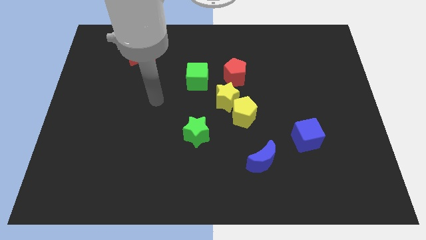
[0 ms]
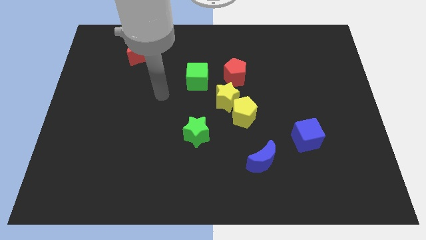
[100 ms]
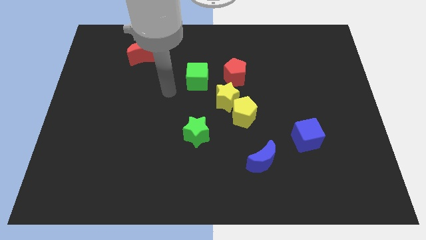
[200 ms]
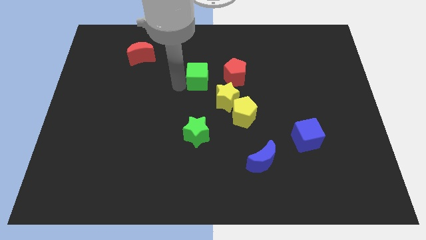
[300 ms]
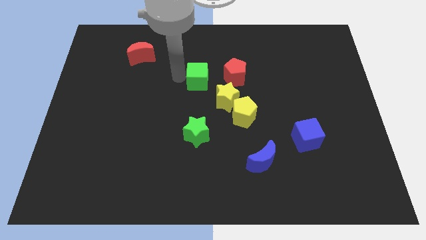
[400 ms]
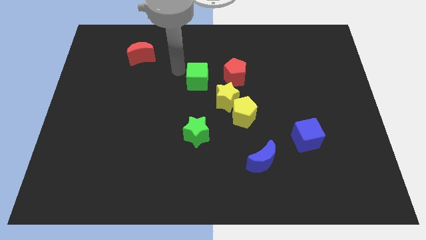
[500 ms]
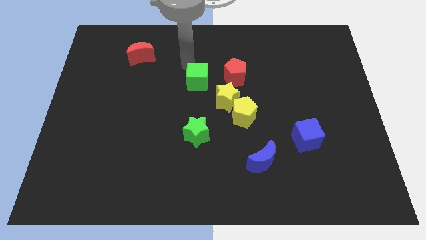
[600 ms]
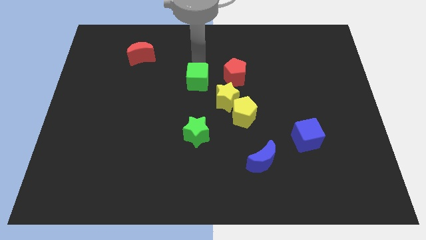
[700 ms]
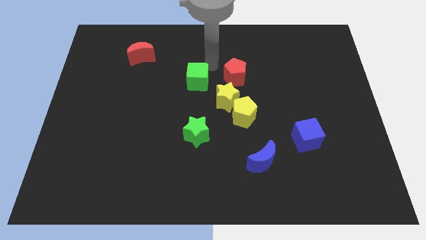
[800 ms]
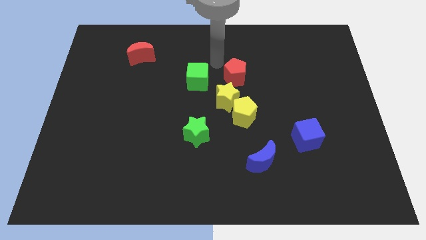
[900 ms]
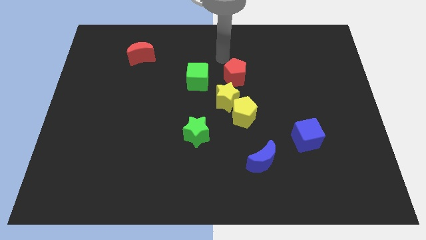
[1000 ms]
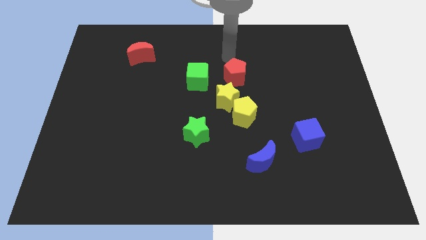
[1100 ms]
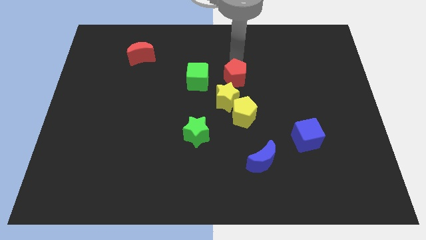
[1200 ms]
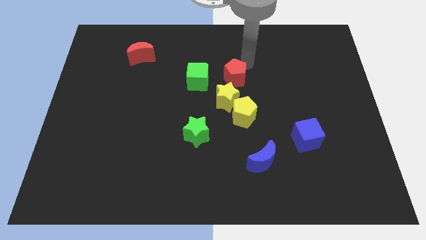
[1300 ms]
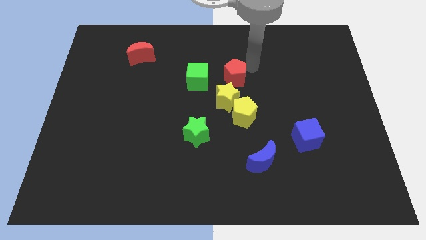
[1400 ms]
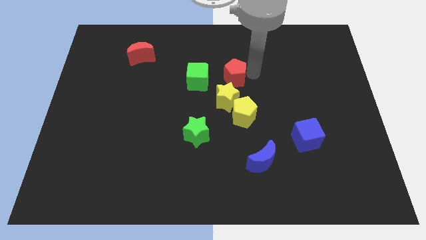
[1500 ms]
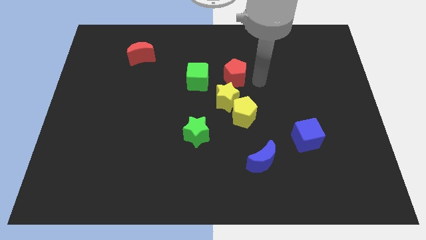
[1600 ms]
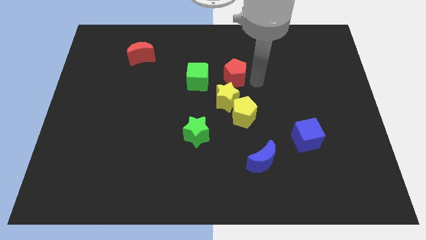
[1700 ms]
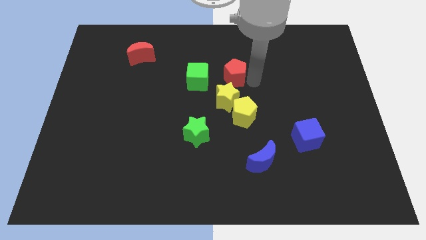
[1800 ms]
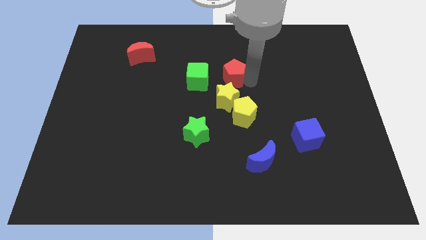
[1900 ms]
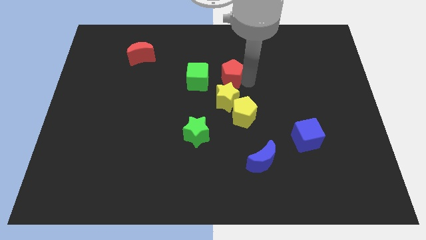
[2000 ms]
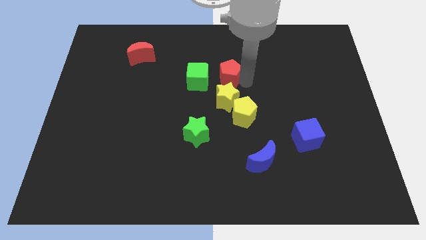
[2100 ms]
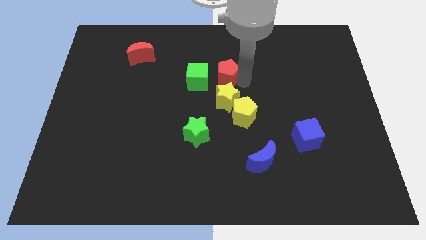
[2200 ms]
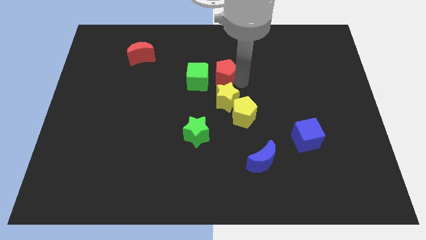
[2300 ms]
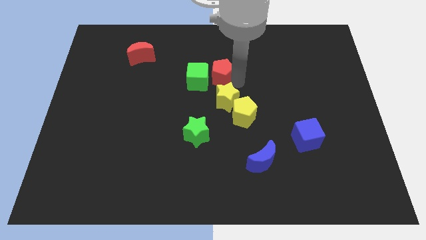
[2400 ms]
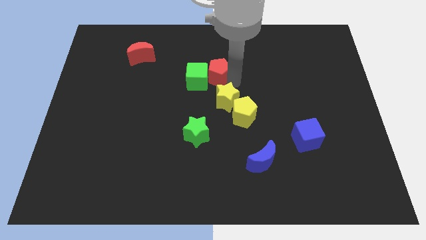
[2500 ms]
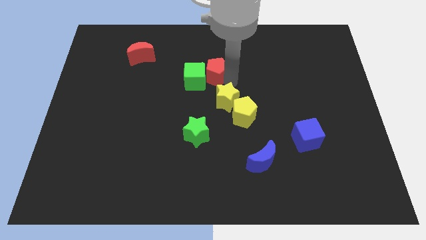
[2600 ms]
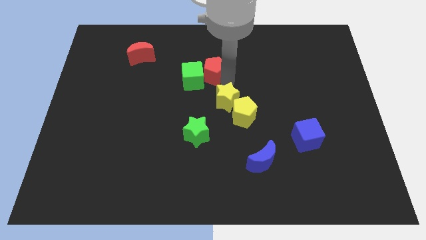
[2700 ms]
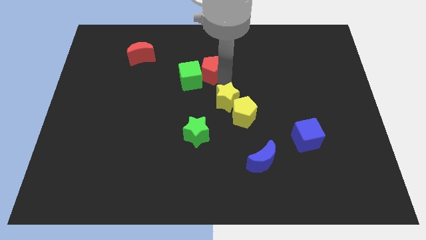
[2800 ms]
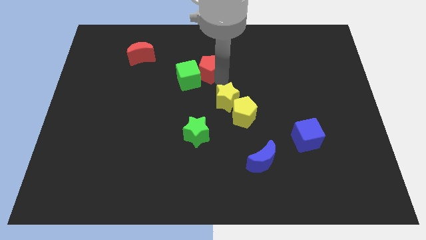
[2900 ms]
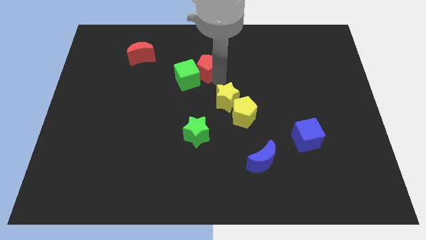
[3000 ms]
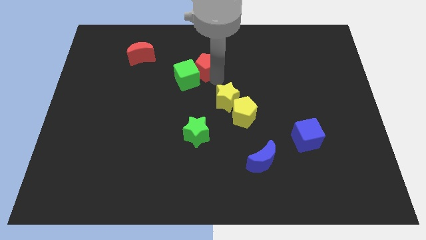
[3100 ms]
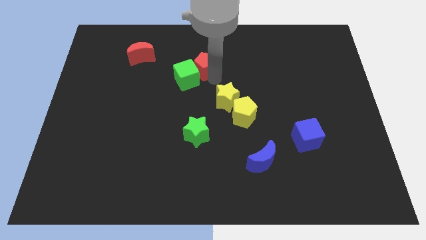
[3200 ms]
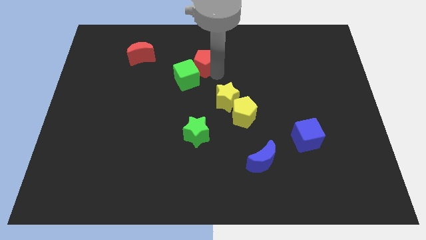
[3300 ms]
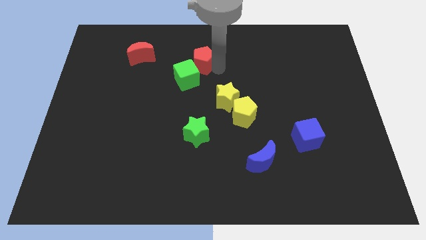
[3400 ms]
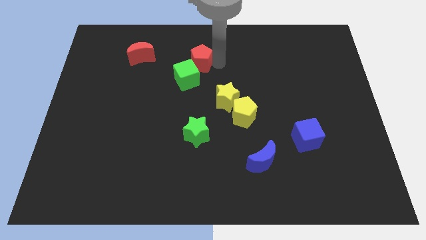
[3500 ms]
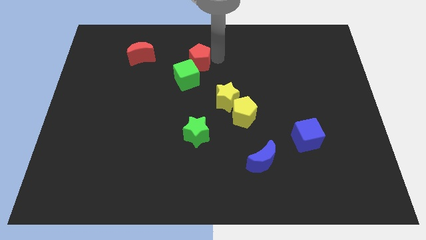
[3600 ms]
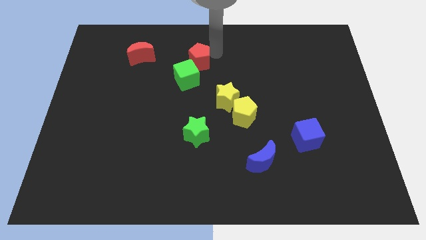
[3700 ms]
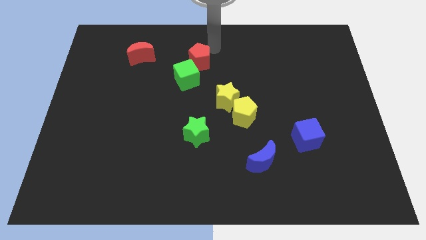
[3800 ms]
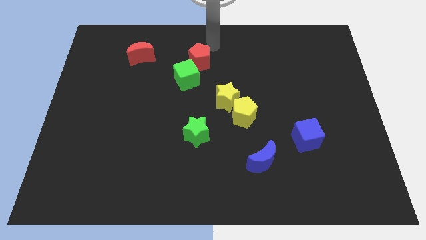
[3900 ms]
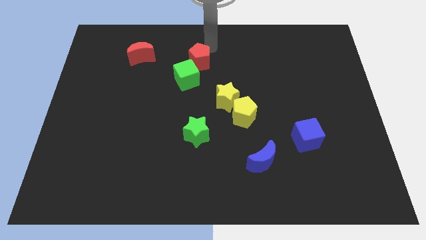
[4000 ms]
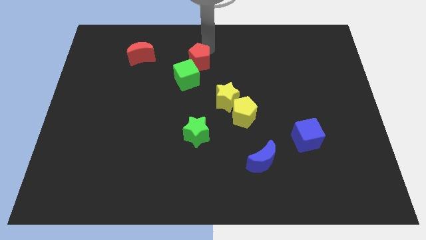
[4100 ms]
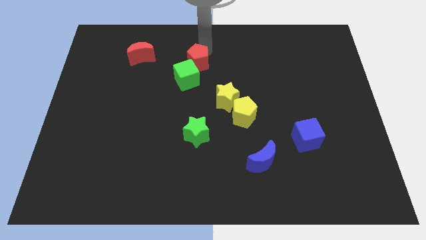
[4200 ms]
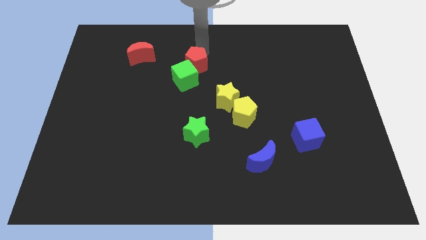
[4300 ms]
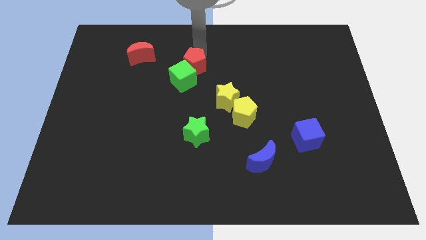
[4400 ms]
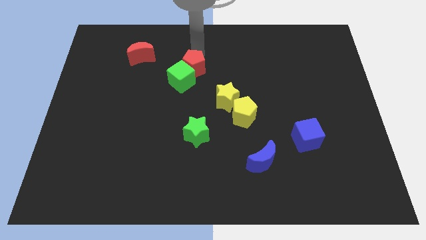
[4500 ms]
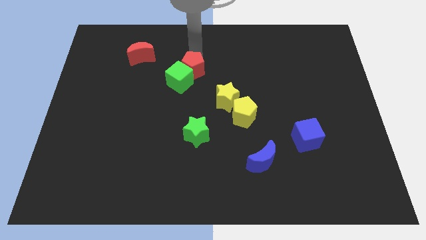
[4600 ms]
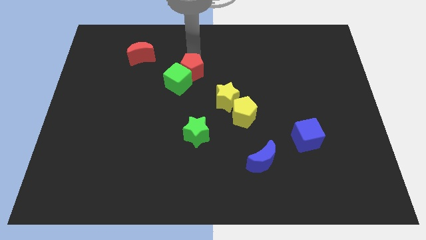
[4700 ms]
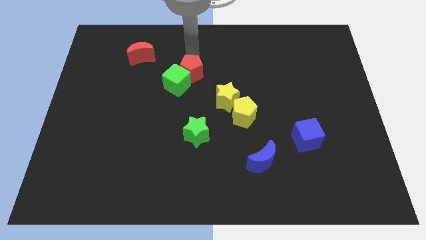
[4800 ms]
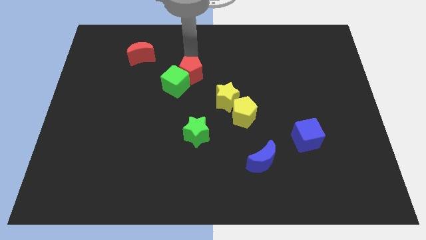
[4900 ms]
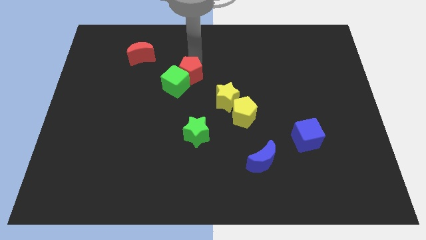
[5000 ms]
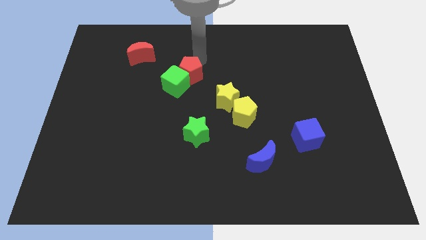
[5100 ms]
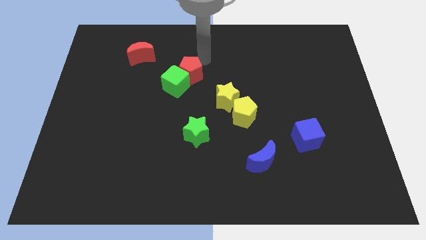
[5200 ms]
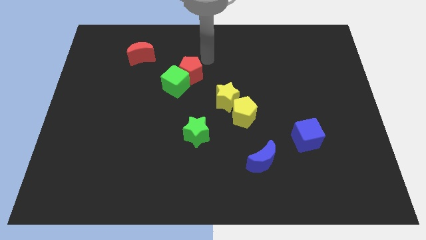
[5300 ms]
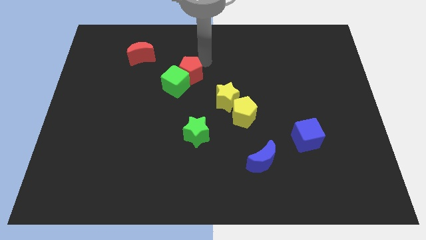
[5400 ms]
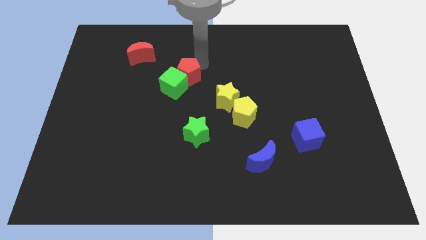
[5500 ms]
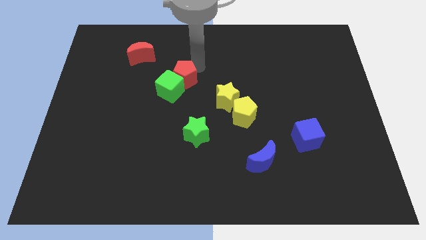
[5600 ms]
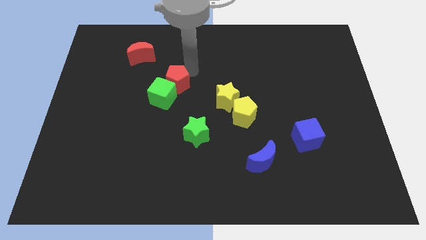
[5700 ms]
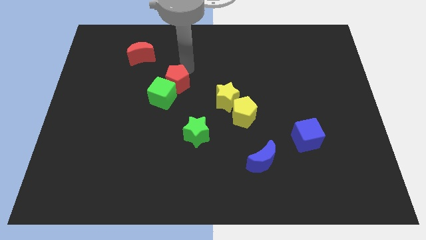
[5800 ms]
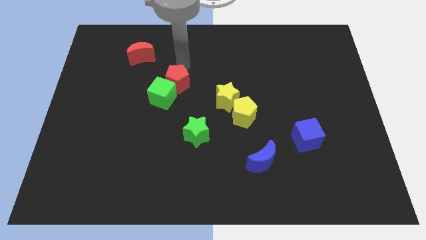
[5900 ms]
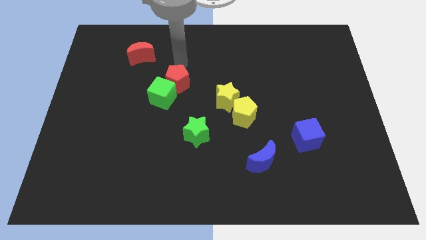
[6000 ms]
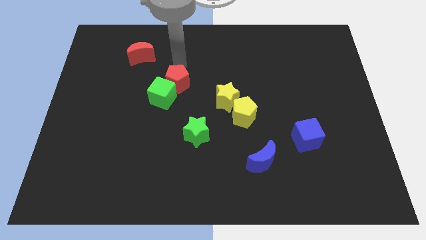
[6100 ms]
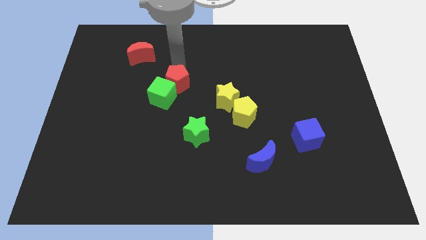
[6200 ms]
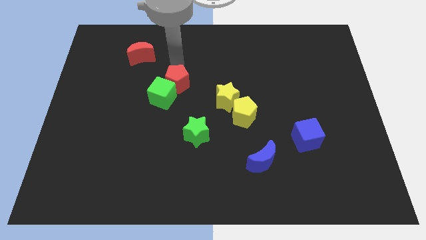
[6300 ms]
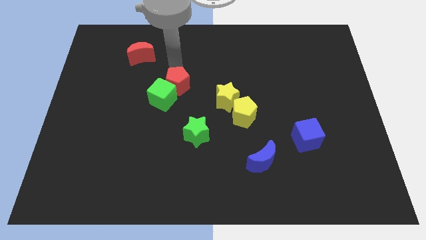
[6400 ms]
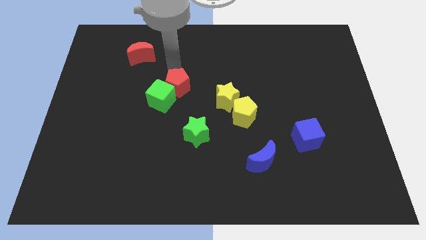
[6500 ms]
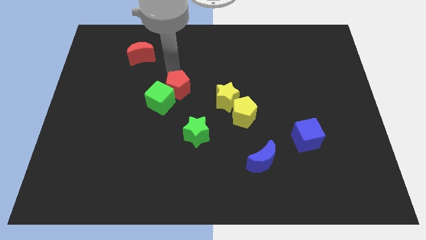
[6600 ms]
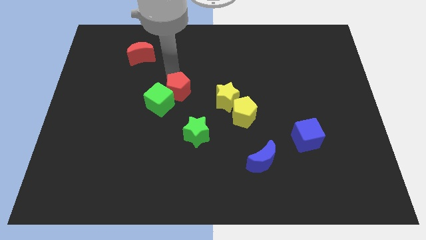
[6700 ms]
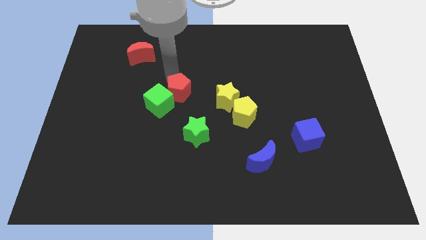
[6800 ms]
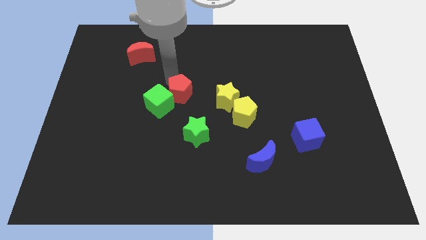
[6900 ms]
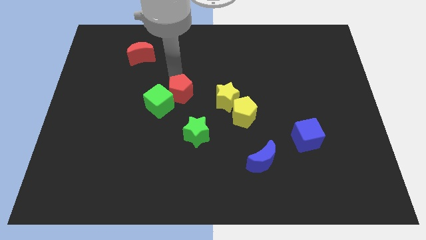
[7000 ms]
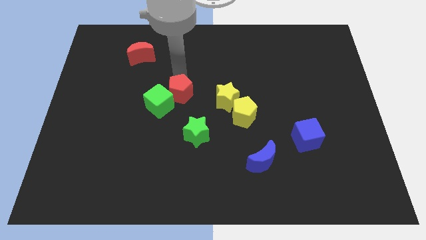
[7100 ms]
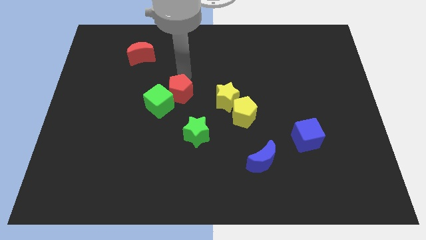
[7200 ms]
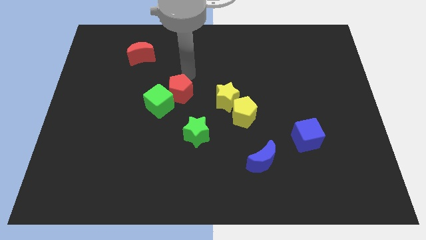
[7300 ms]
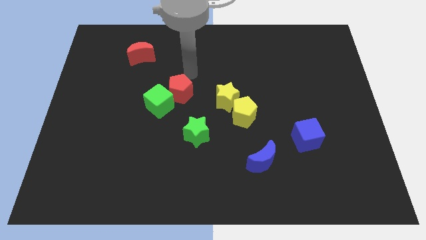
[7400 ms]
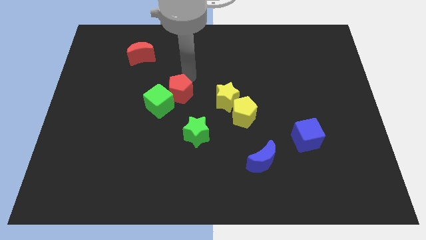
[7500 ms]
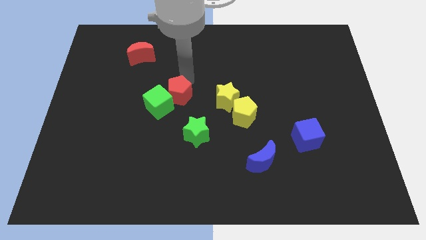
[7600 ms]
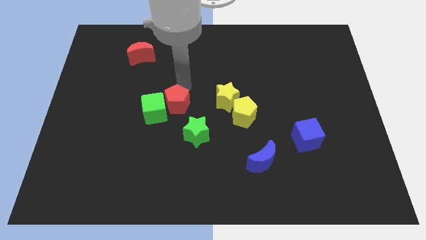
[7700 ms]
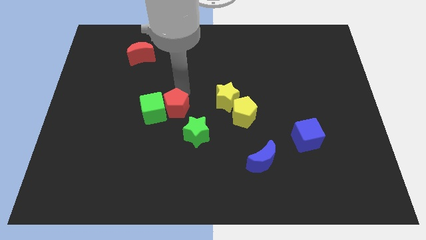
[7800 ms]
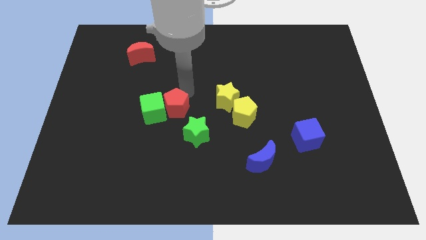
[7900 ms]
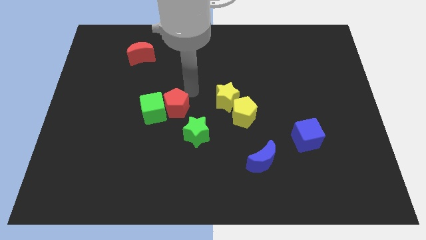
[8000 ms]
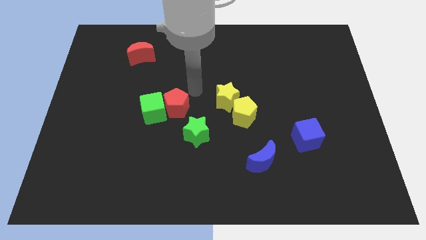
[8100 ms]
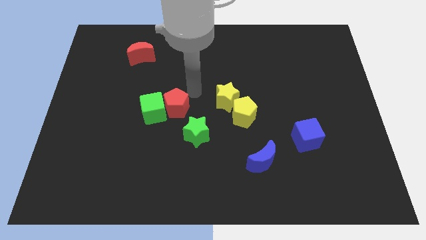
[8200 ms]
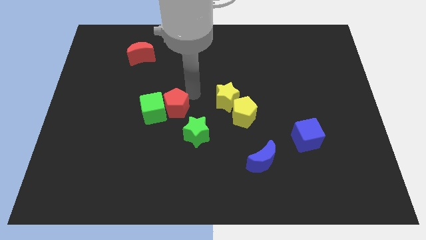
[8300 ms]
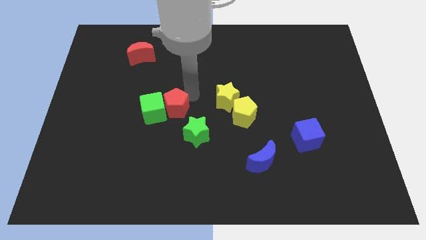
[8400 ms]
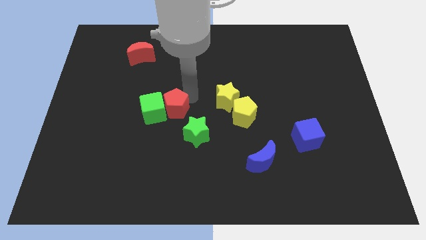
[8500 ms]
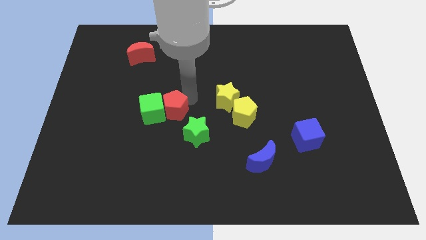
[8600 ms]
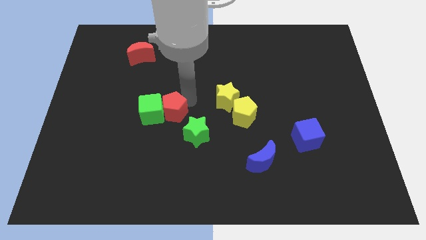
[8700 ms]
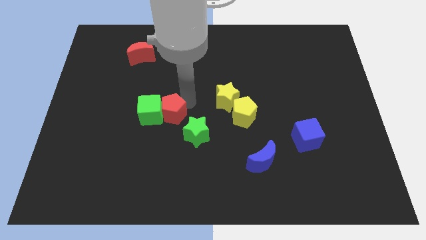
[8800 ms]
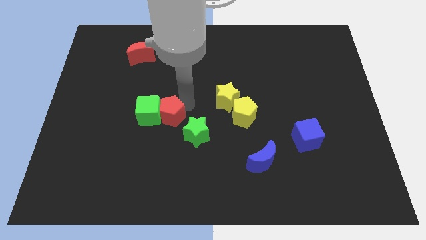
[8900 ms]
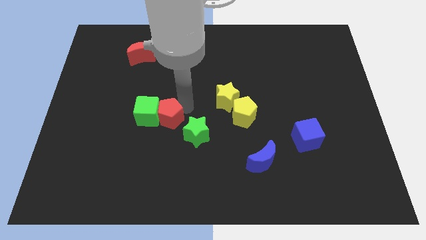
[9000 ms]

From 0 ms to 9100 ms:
move the red pentagon down and to the left
